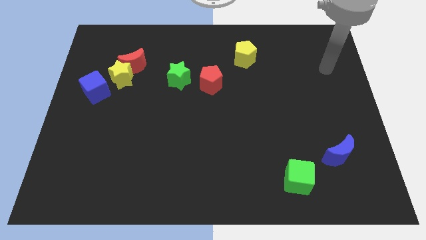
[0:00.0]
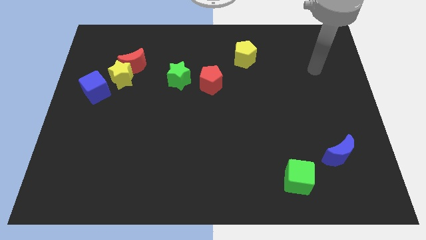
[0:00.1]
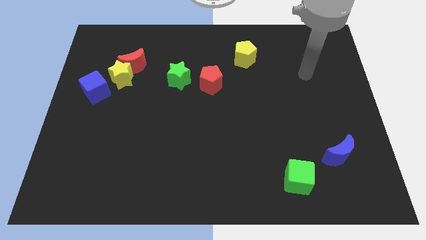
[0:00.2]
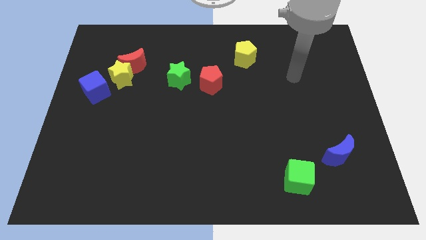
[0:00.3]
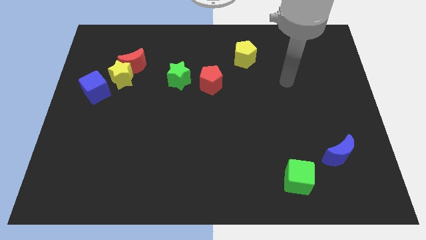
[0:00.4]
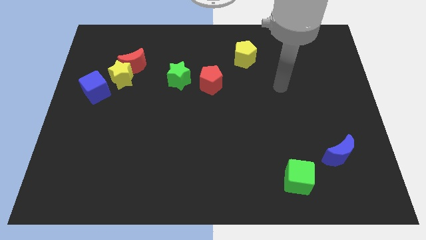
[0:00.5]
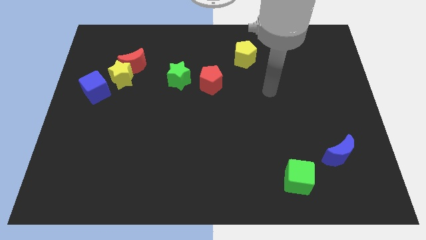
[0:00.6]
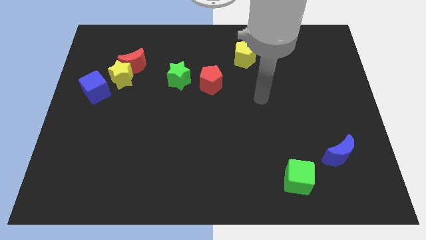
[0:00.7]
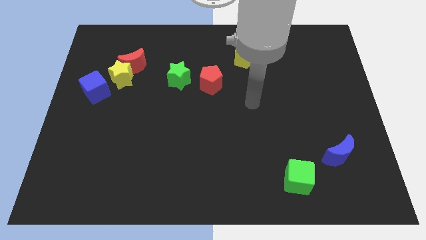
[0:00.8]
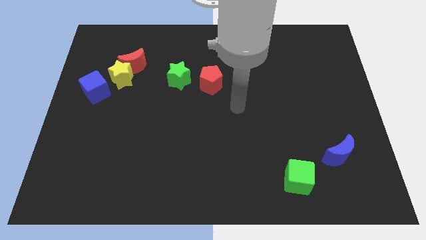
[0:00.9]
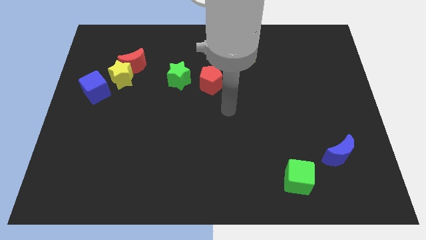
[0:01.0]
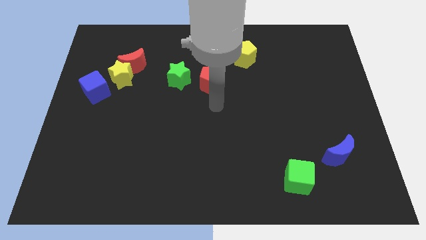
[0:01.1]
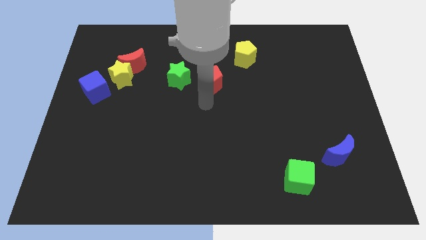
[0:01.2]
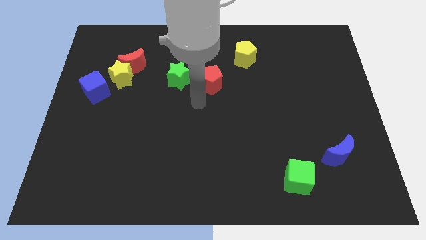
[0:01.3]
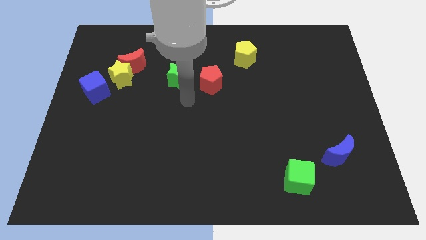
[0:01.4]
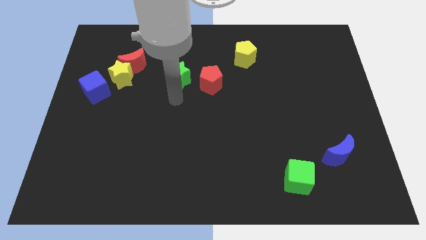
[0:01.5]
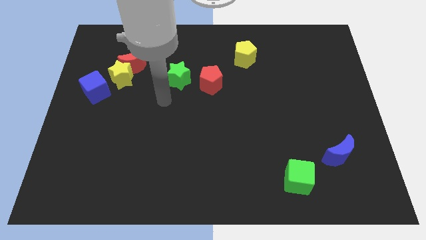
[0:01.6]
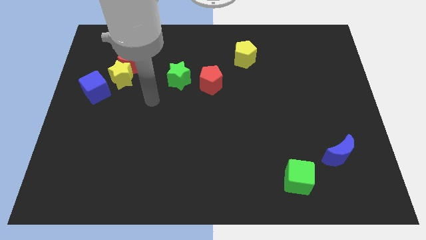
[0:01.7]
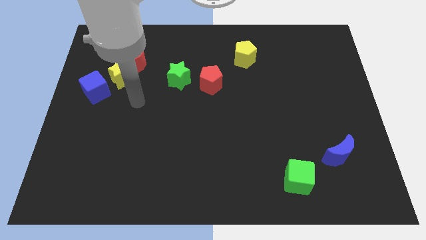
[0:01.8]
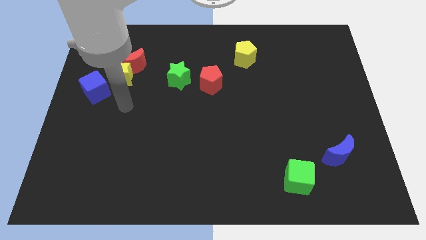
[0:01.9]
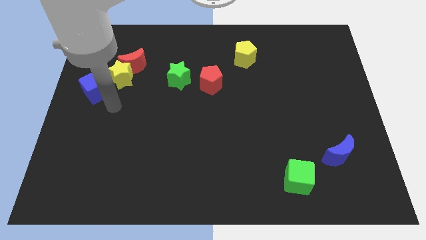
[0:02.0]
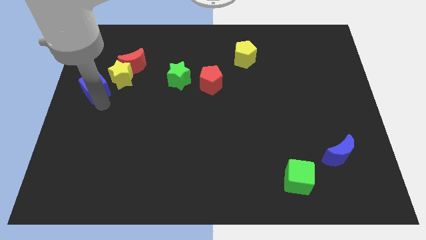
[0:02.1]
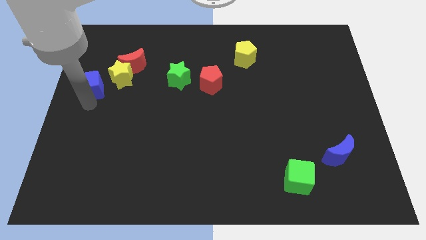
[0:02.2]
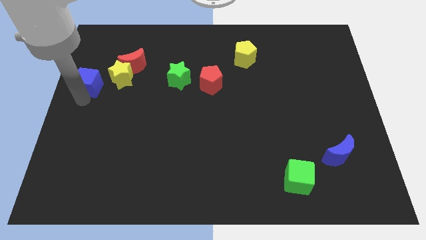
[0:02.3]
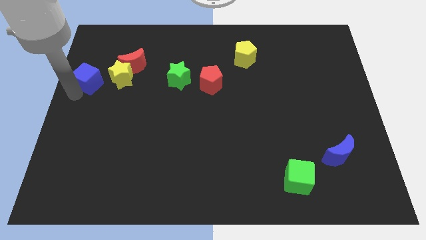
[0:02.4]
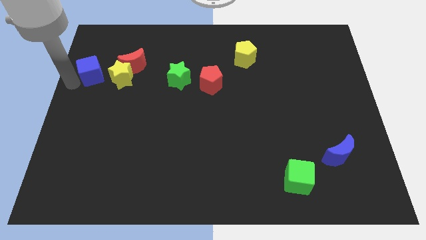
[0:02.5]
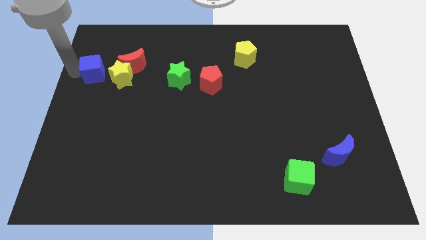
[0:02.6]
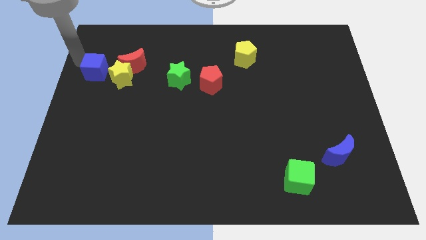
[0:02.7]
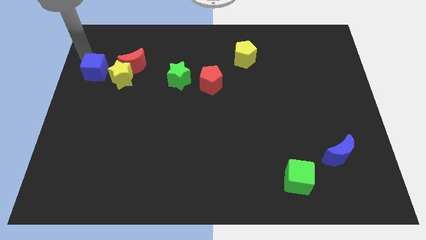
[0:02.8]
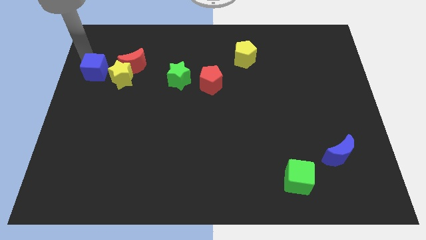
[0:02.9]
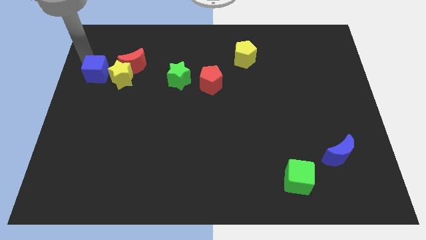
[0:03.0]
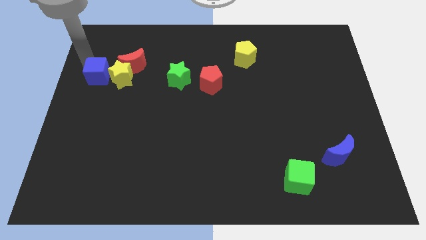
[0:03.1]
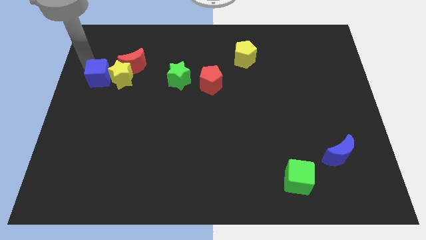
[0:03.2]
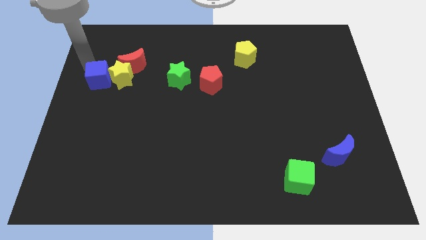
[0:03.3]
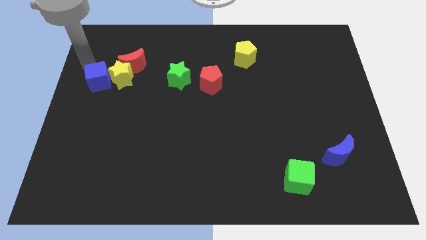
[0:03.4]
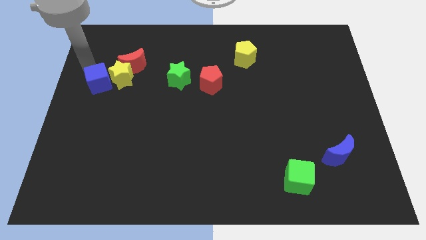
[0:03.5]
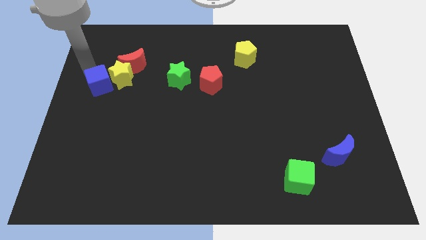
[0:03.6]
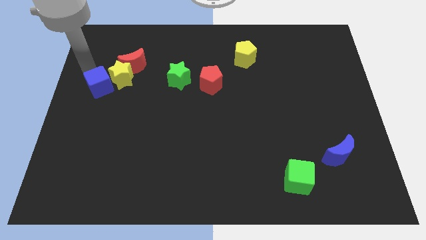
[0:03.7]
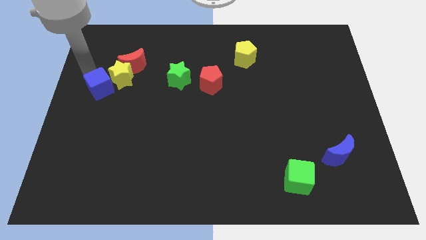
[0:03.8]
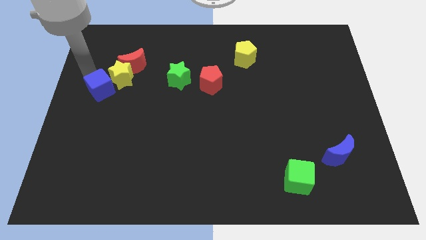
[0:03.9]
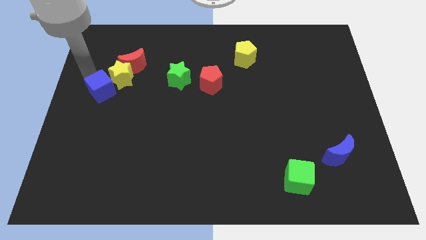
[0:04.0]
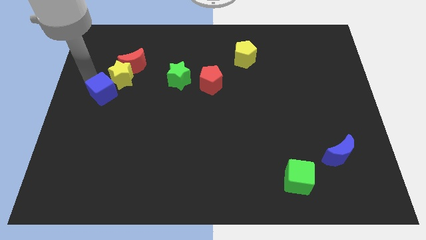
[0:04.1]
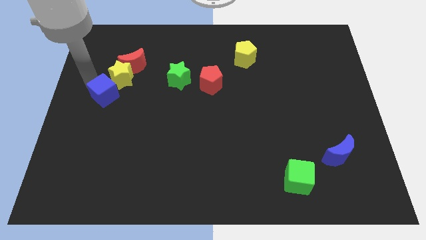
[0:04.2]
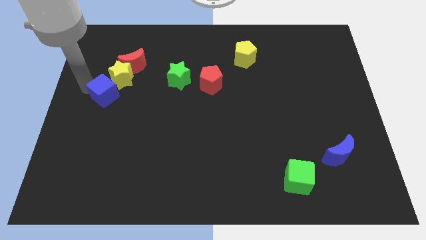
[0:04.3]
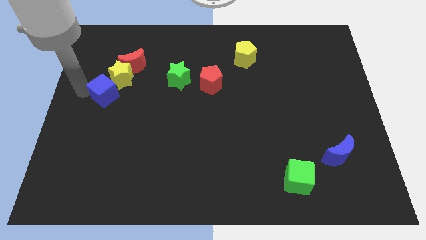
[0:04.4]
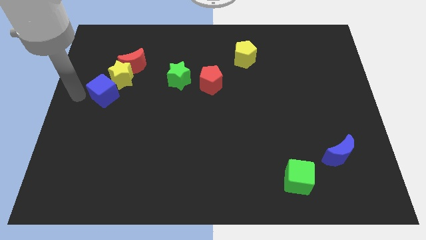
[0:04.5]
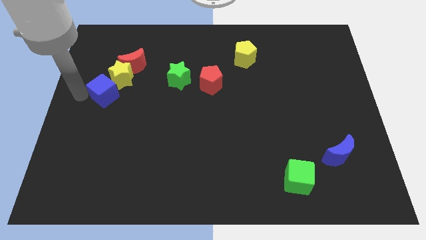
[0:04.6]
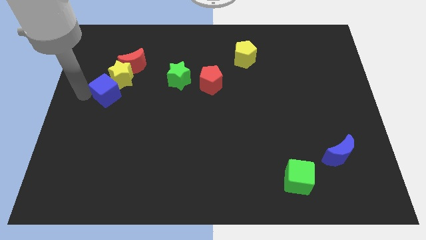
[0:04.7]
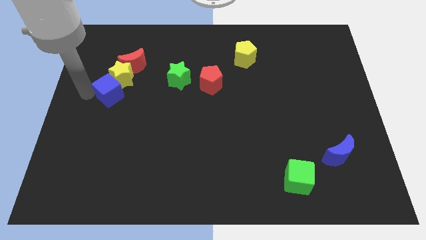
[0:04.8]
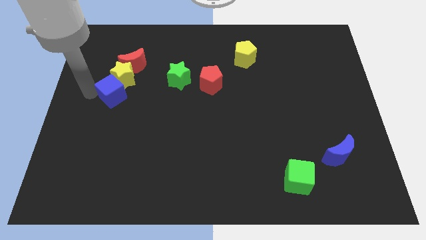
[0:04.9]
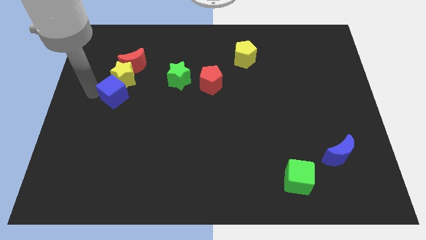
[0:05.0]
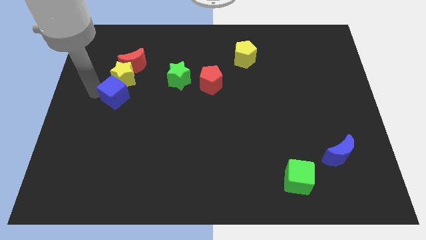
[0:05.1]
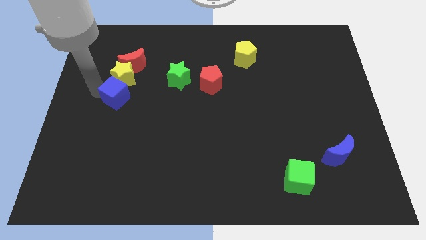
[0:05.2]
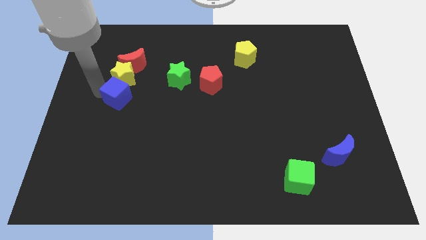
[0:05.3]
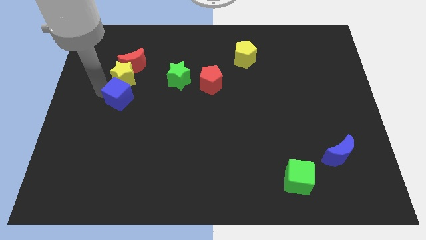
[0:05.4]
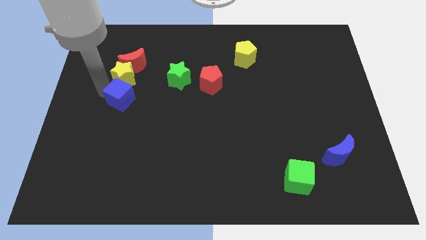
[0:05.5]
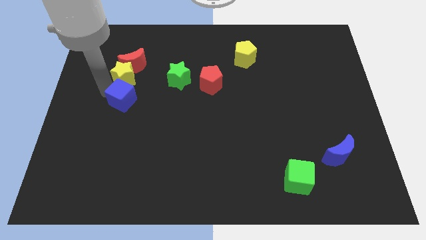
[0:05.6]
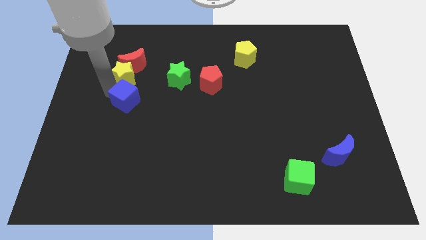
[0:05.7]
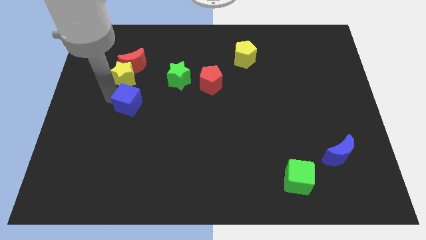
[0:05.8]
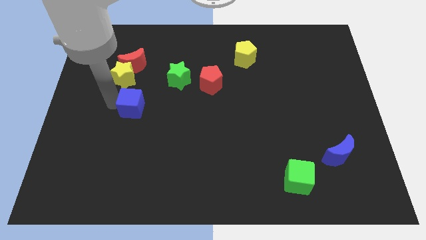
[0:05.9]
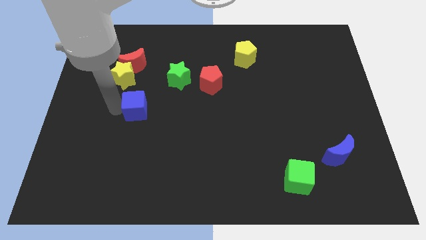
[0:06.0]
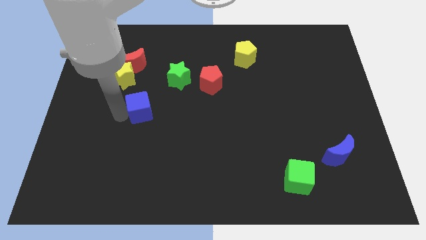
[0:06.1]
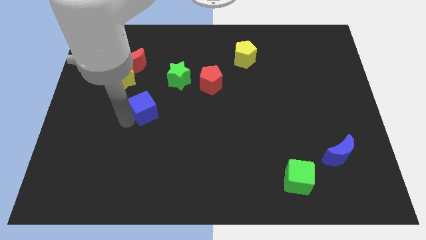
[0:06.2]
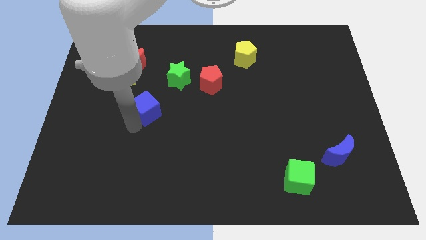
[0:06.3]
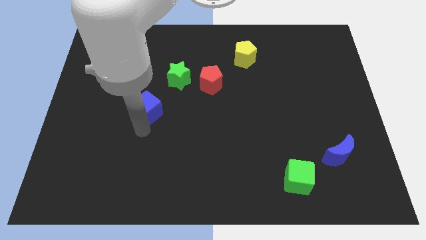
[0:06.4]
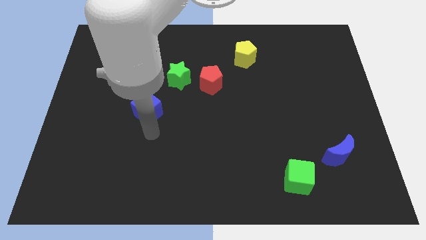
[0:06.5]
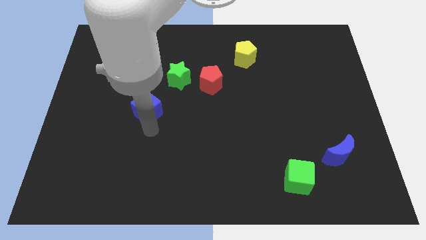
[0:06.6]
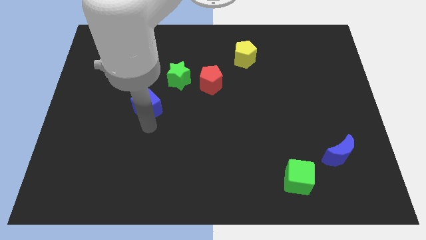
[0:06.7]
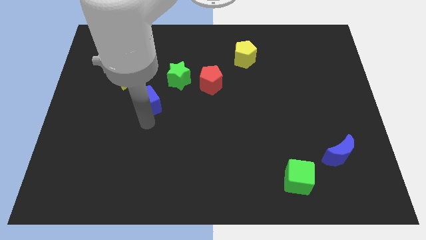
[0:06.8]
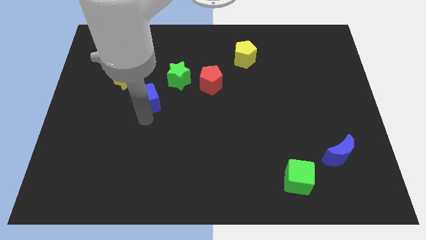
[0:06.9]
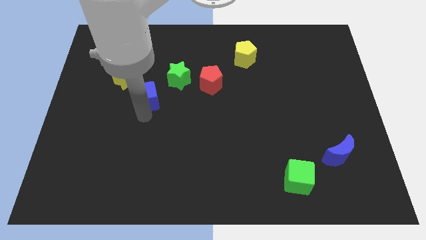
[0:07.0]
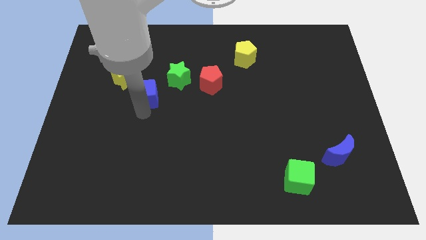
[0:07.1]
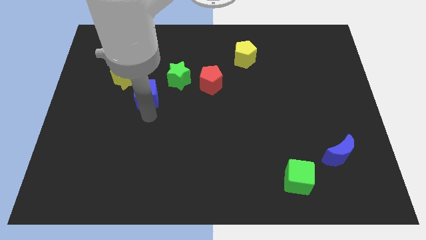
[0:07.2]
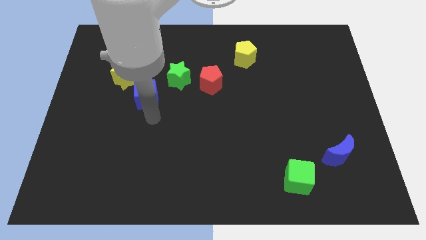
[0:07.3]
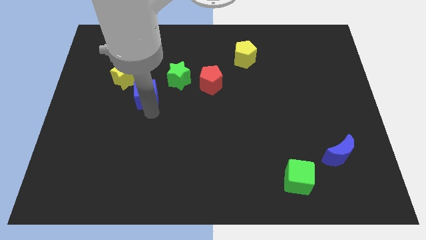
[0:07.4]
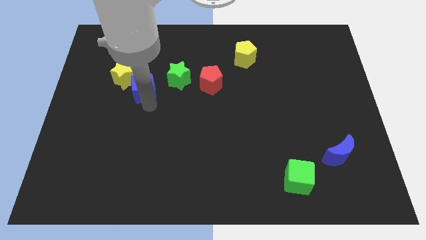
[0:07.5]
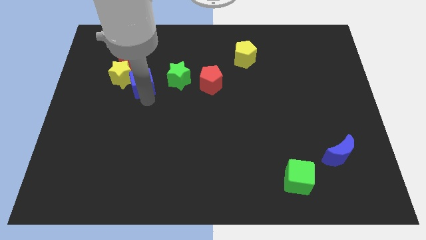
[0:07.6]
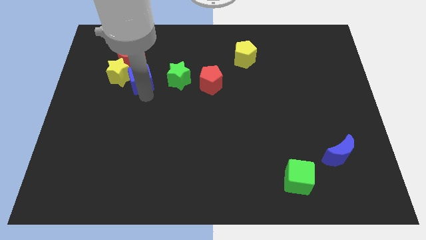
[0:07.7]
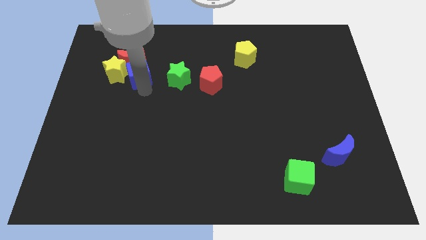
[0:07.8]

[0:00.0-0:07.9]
slide the blue cube towards the red moon
